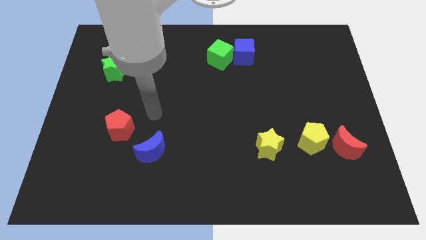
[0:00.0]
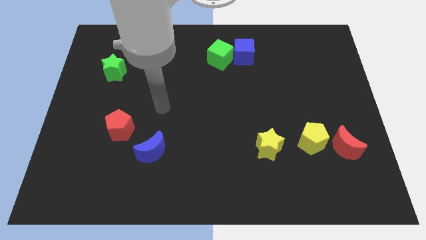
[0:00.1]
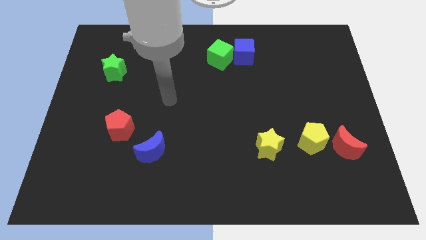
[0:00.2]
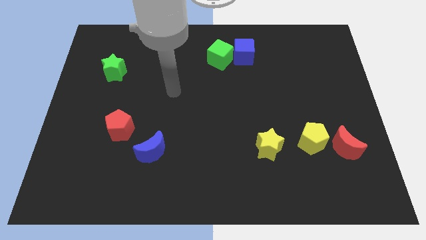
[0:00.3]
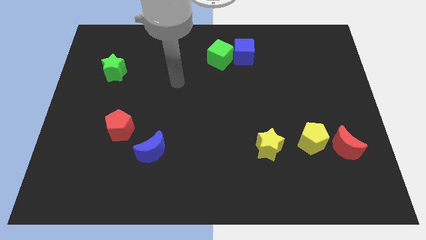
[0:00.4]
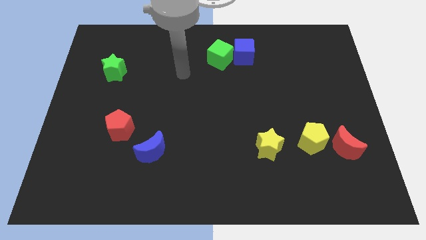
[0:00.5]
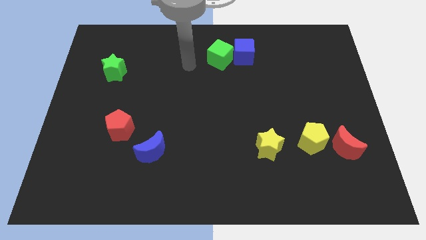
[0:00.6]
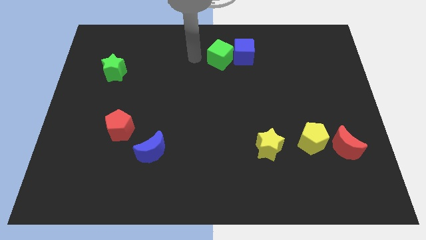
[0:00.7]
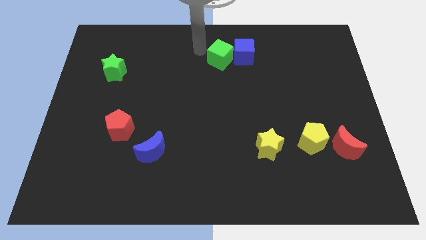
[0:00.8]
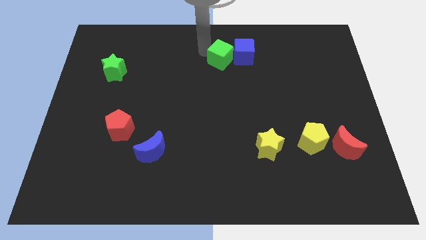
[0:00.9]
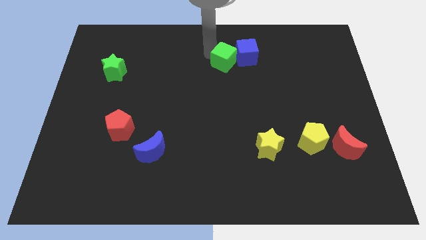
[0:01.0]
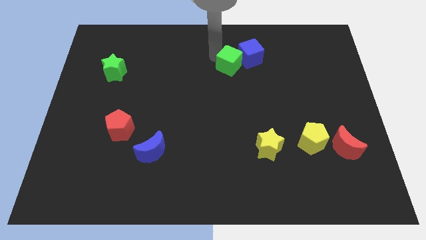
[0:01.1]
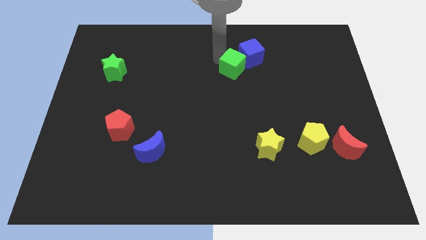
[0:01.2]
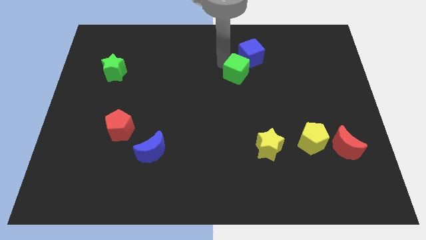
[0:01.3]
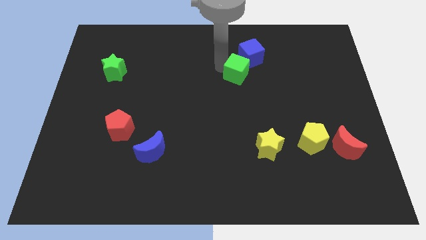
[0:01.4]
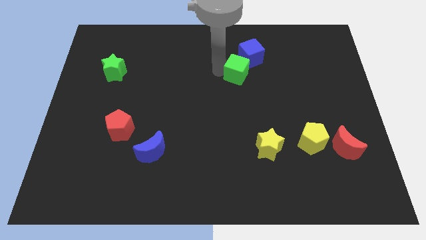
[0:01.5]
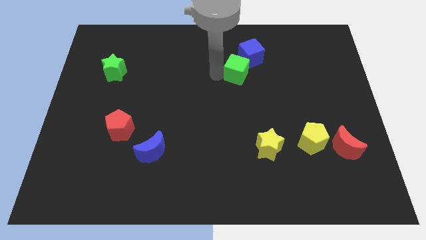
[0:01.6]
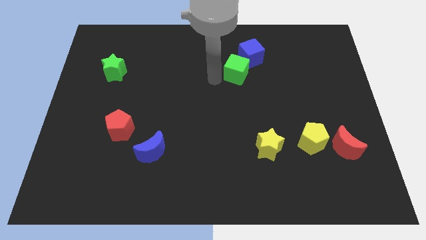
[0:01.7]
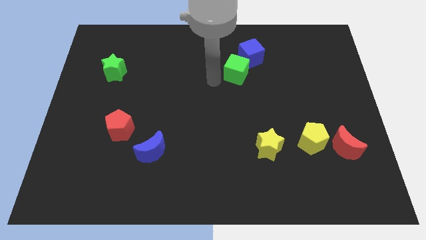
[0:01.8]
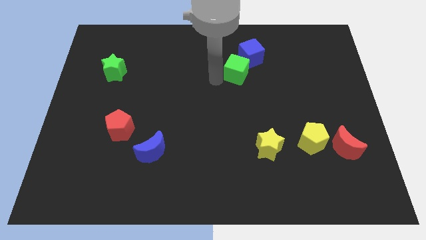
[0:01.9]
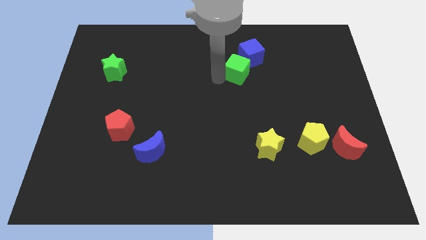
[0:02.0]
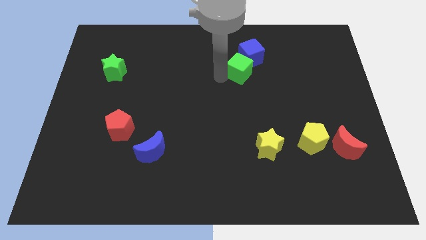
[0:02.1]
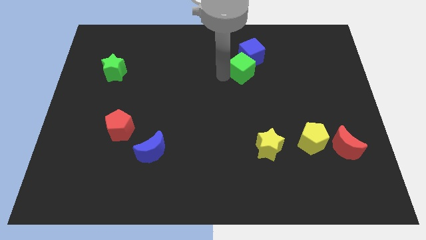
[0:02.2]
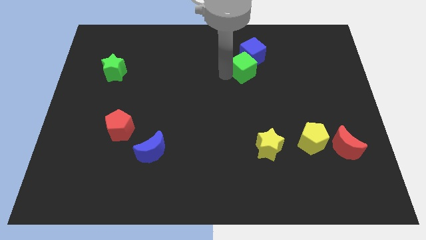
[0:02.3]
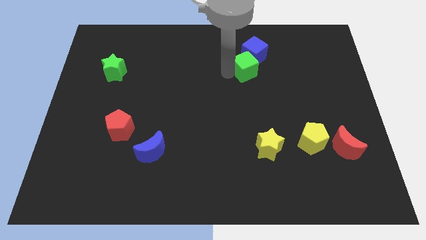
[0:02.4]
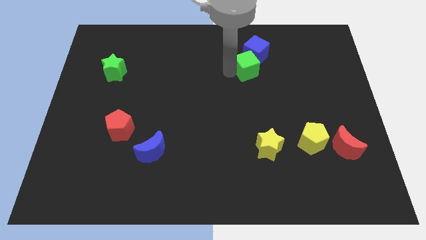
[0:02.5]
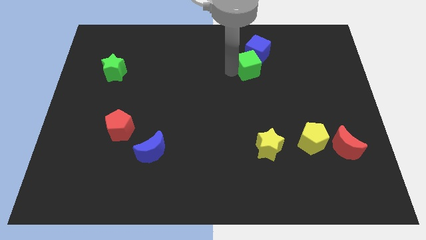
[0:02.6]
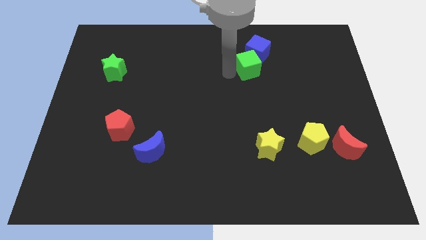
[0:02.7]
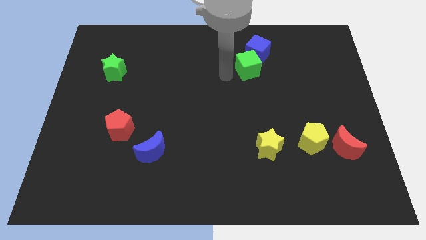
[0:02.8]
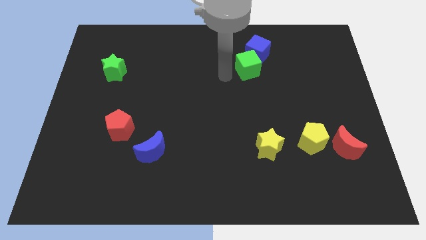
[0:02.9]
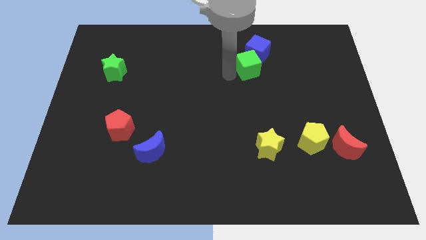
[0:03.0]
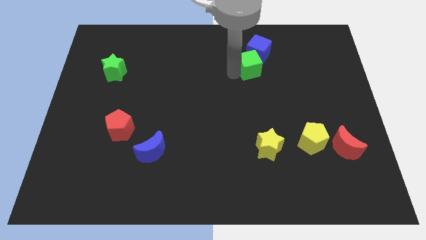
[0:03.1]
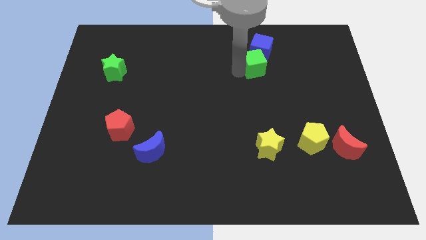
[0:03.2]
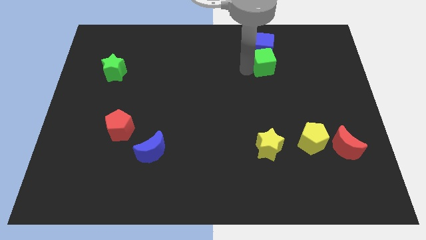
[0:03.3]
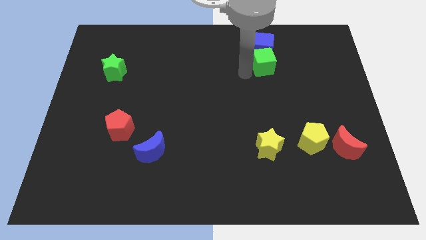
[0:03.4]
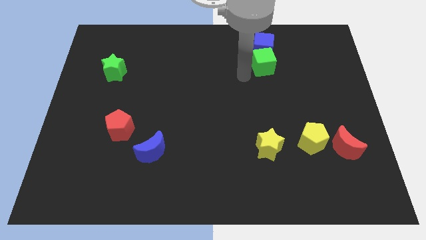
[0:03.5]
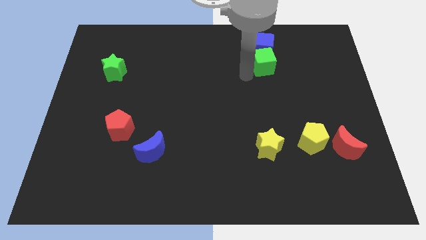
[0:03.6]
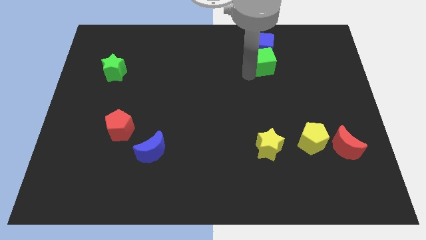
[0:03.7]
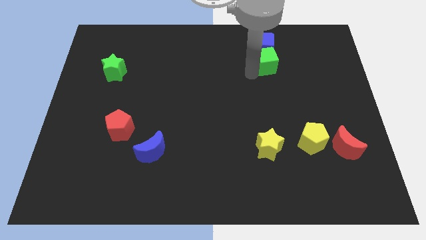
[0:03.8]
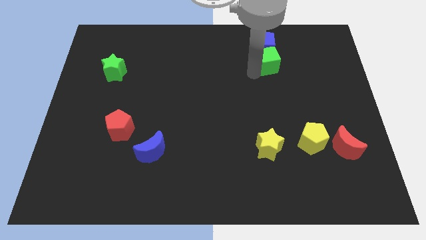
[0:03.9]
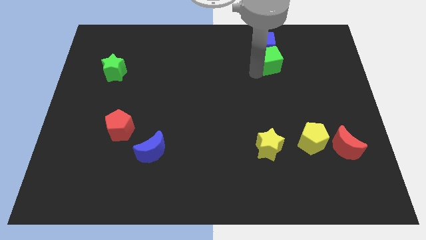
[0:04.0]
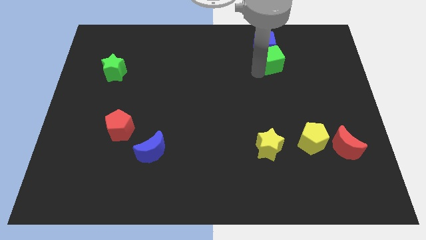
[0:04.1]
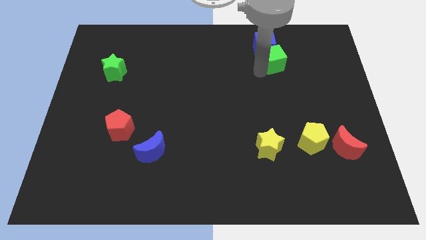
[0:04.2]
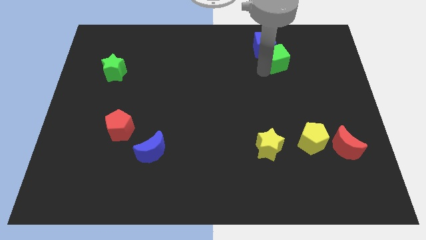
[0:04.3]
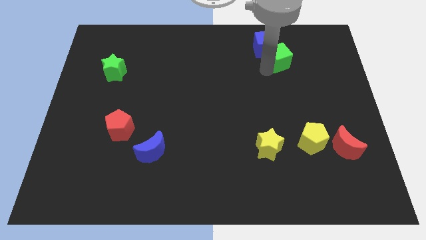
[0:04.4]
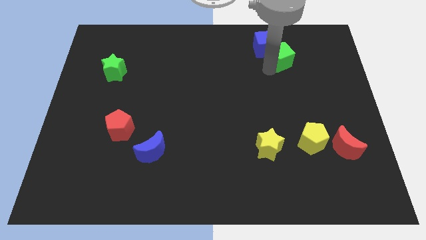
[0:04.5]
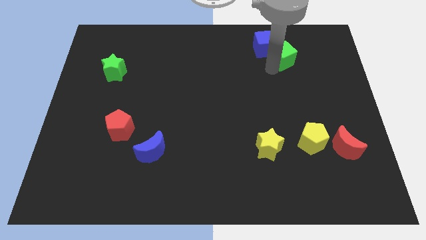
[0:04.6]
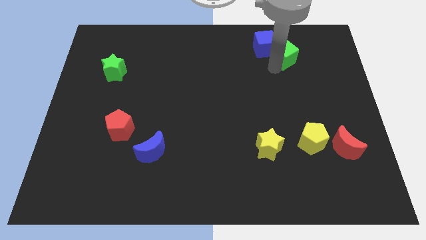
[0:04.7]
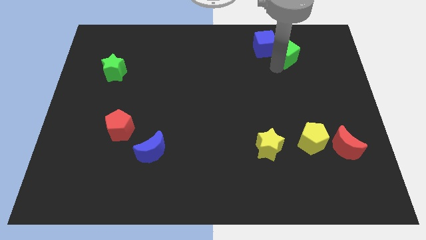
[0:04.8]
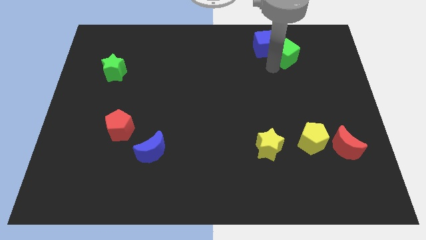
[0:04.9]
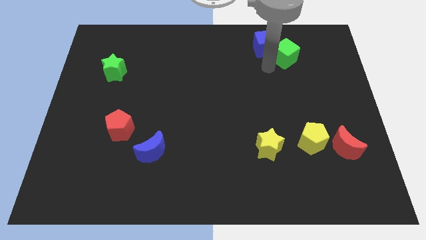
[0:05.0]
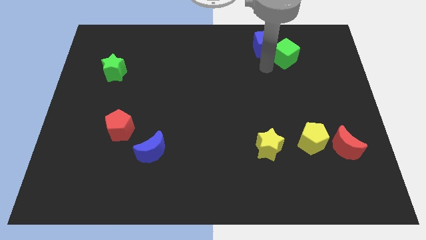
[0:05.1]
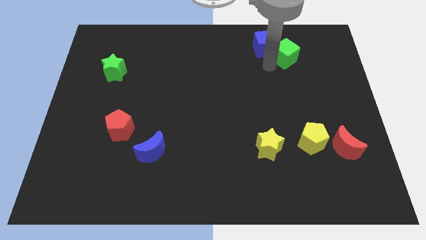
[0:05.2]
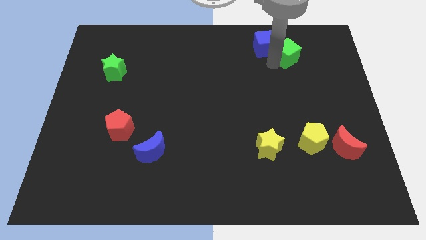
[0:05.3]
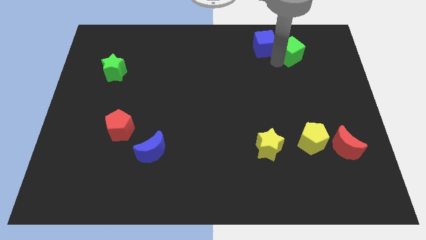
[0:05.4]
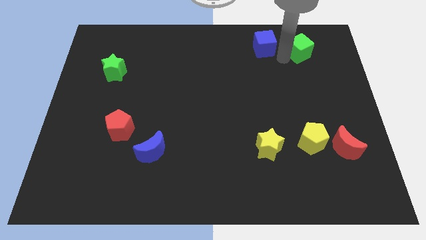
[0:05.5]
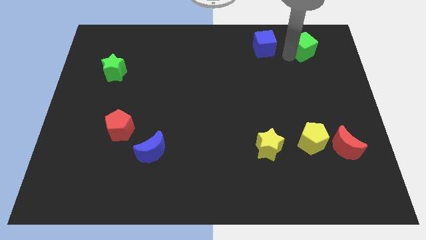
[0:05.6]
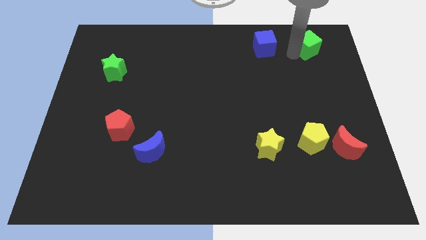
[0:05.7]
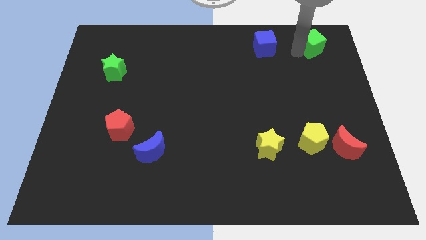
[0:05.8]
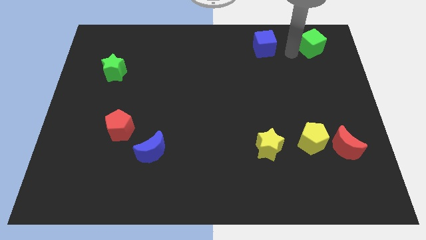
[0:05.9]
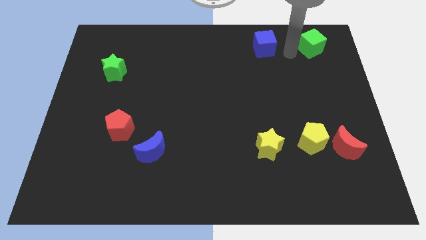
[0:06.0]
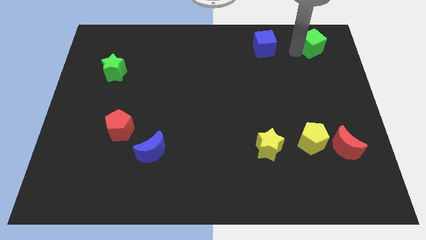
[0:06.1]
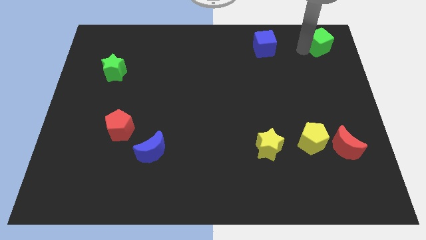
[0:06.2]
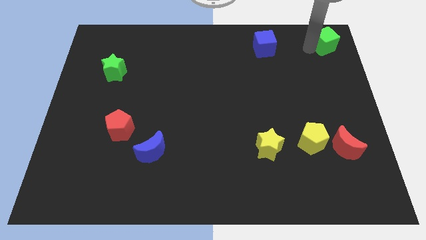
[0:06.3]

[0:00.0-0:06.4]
push the green cube to the top right

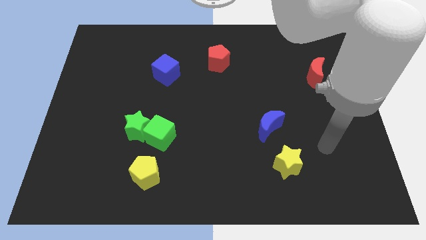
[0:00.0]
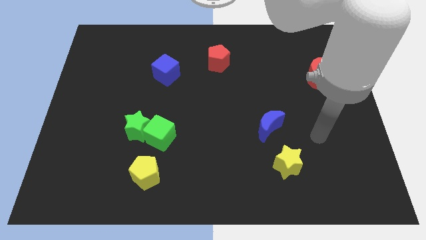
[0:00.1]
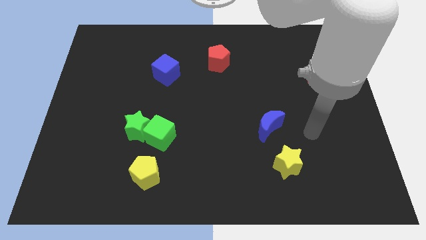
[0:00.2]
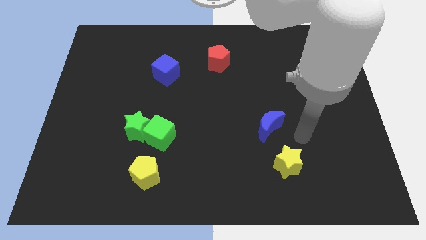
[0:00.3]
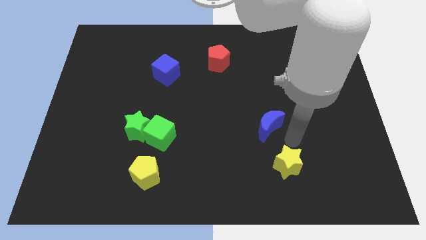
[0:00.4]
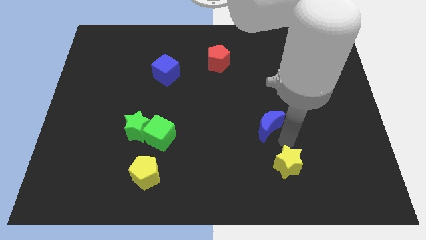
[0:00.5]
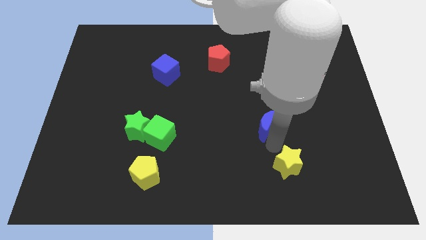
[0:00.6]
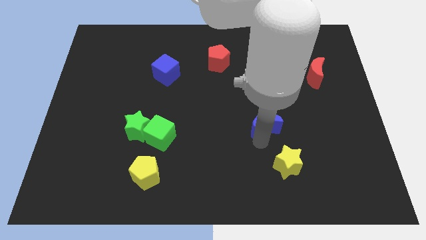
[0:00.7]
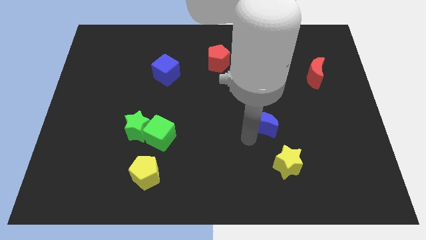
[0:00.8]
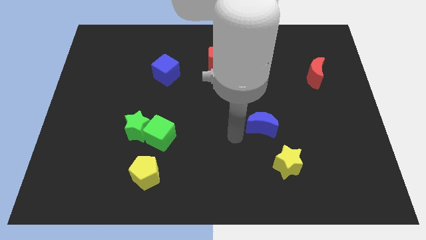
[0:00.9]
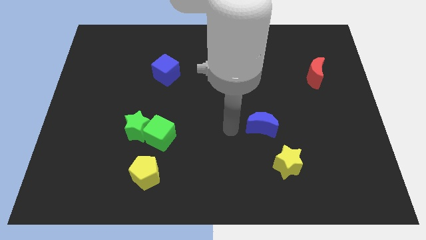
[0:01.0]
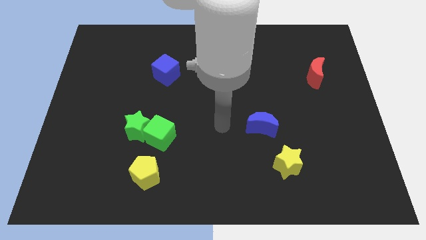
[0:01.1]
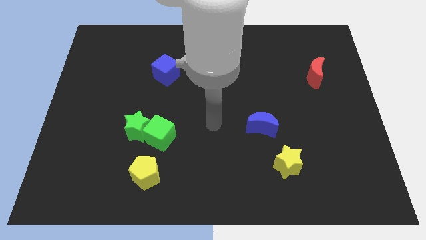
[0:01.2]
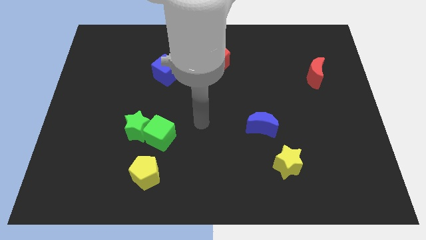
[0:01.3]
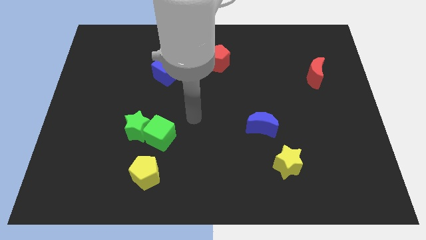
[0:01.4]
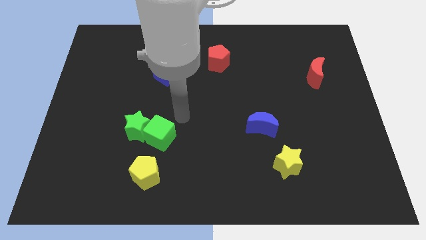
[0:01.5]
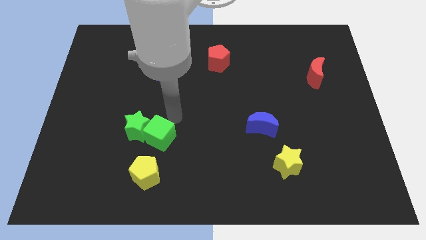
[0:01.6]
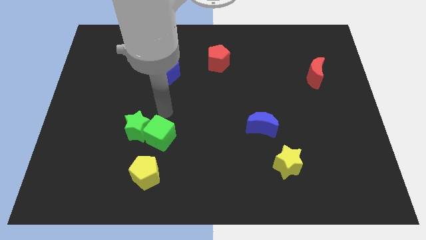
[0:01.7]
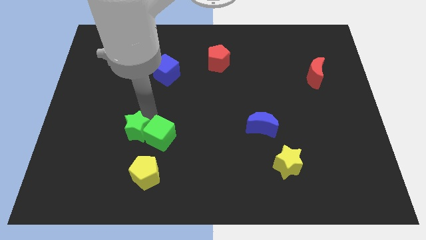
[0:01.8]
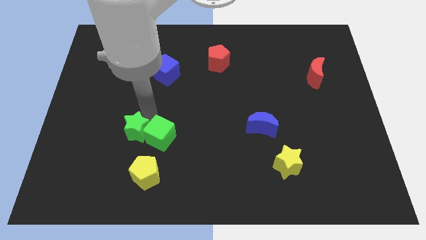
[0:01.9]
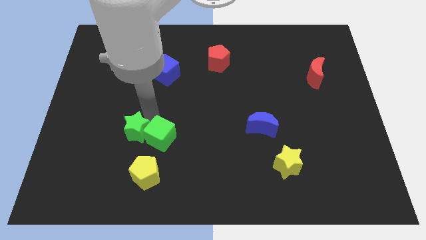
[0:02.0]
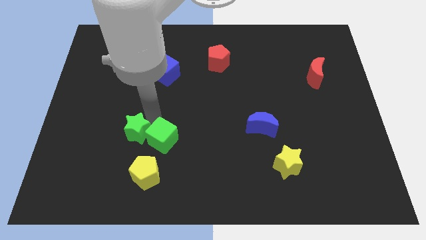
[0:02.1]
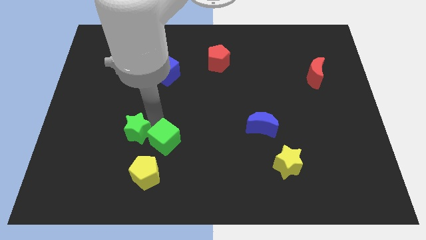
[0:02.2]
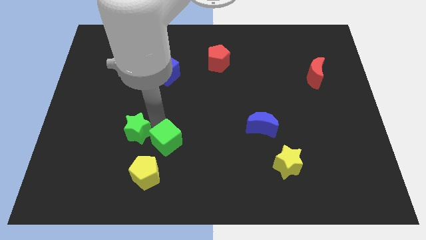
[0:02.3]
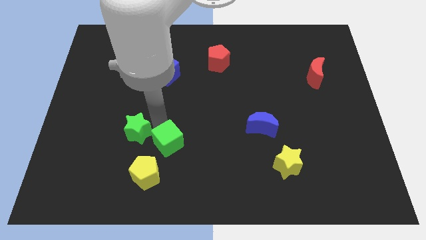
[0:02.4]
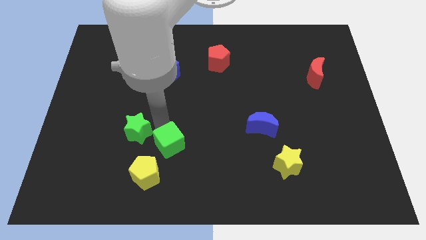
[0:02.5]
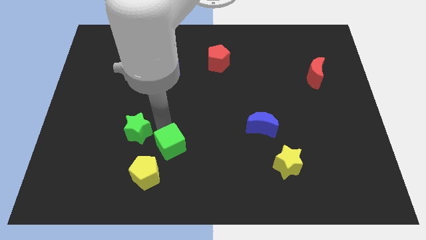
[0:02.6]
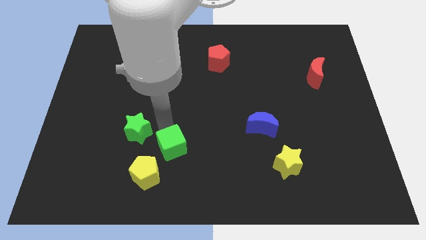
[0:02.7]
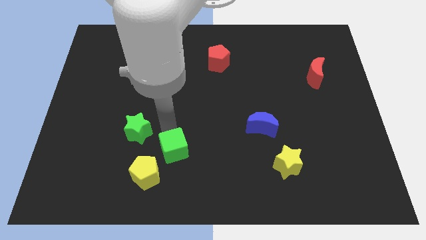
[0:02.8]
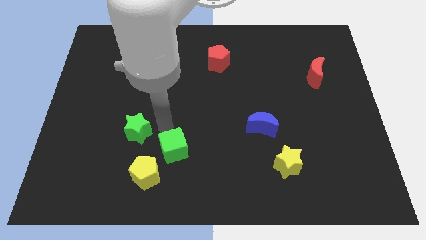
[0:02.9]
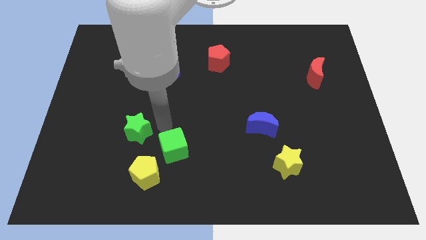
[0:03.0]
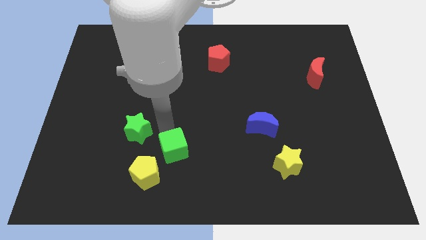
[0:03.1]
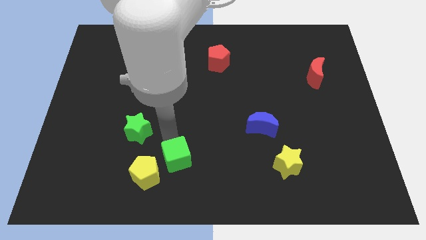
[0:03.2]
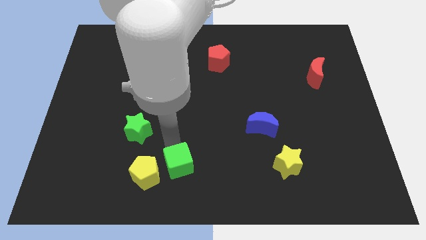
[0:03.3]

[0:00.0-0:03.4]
put the green cube to the bottom side
